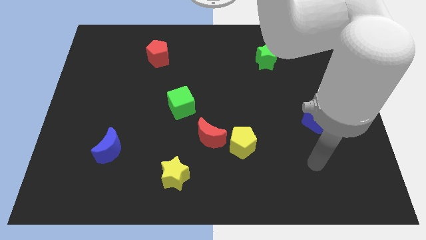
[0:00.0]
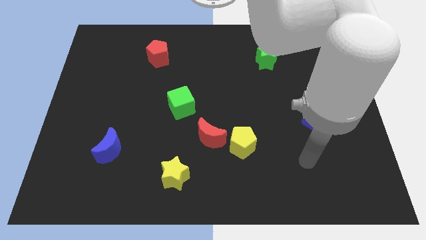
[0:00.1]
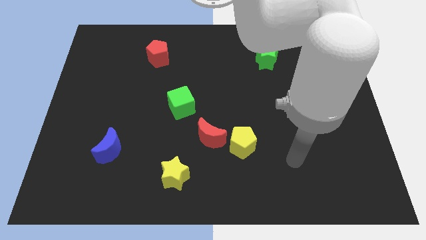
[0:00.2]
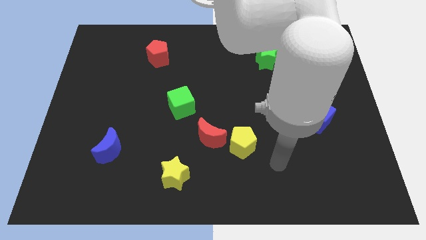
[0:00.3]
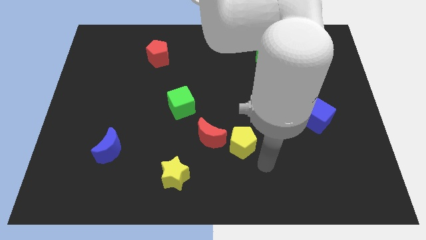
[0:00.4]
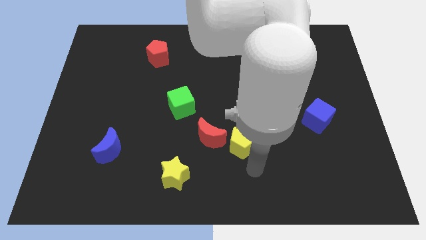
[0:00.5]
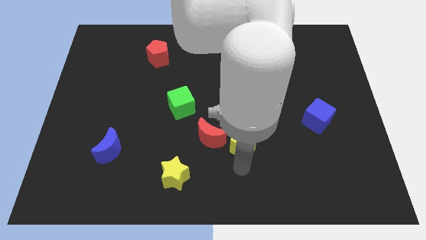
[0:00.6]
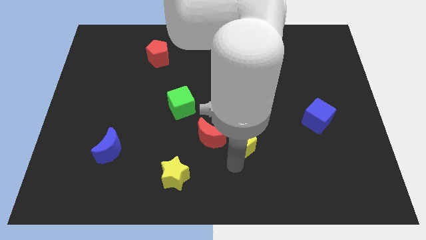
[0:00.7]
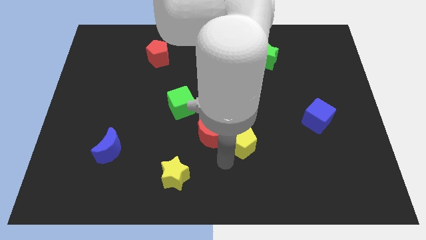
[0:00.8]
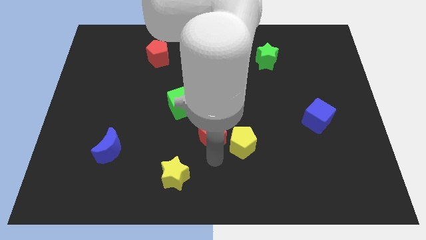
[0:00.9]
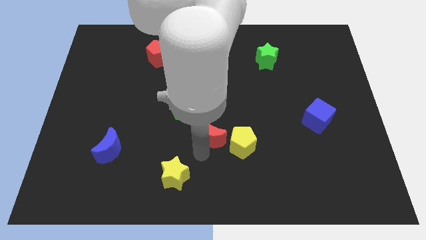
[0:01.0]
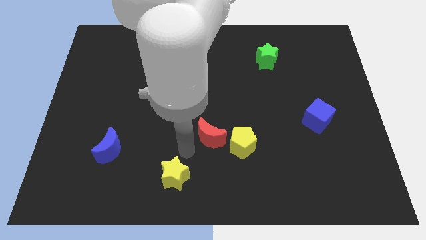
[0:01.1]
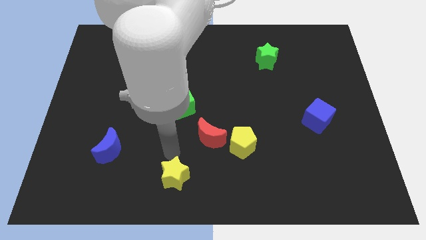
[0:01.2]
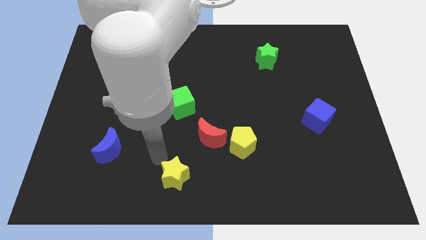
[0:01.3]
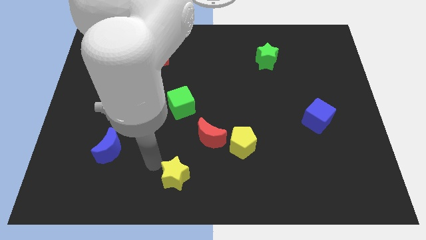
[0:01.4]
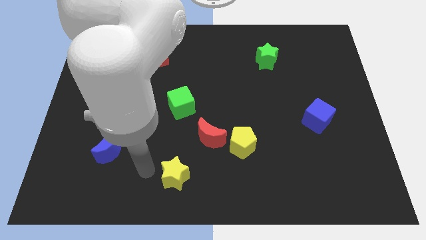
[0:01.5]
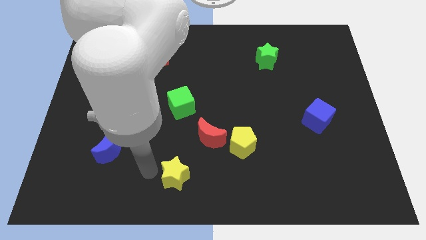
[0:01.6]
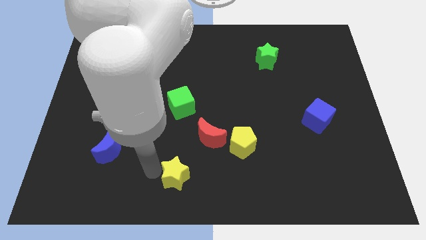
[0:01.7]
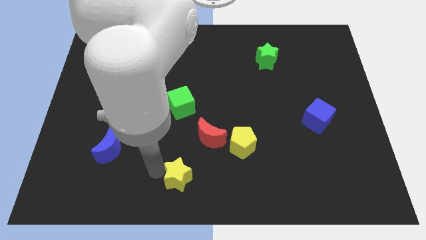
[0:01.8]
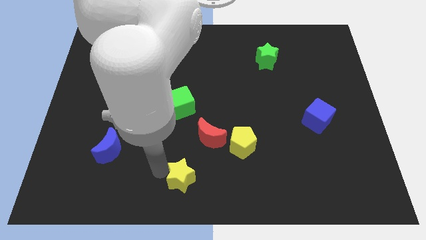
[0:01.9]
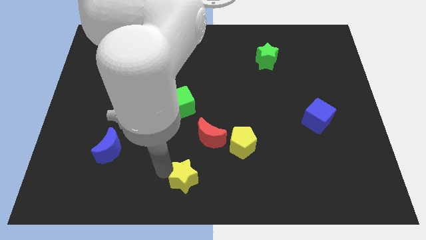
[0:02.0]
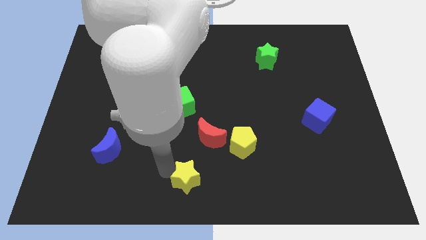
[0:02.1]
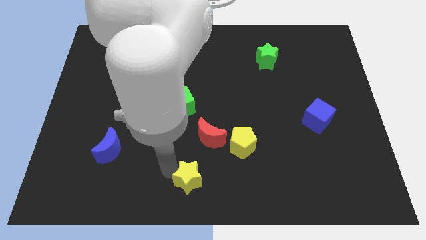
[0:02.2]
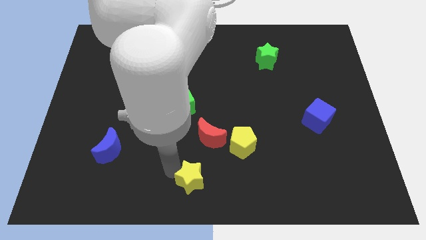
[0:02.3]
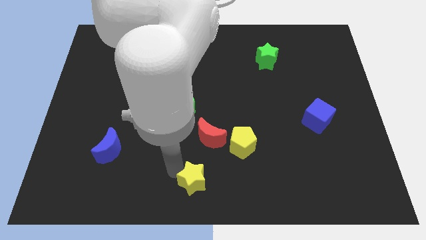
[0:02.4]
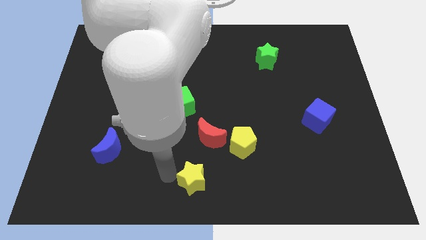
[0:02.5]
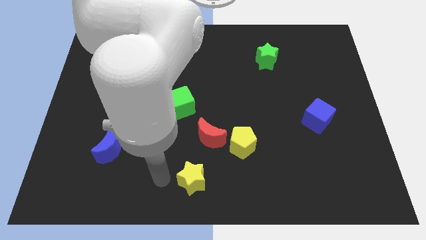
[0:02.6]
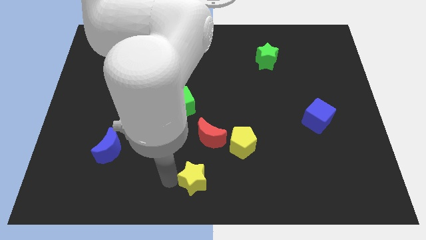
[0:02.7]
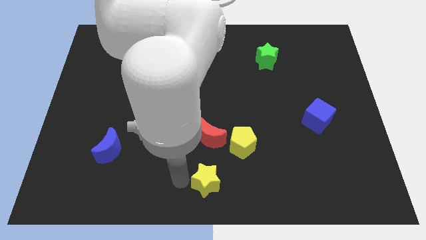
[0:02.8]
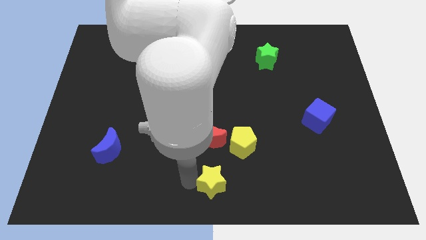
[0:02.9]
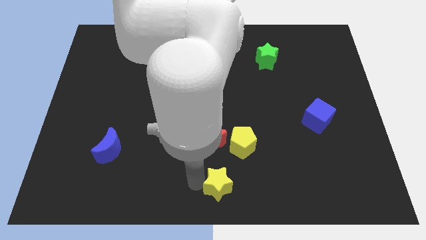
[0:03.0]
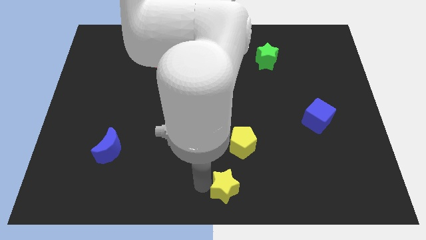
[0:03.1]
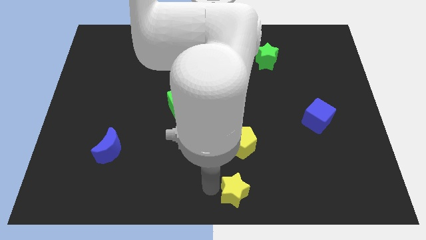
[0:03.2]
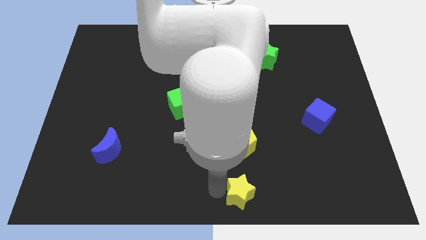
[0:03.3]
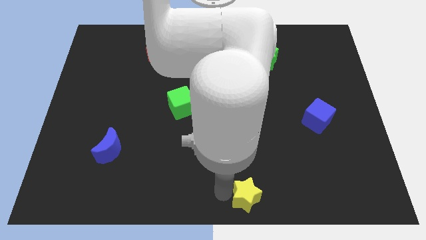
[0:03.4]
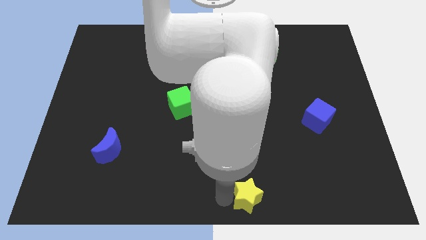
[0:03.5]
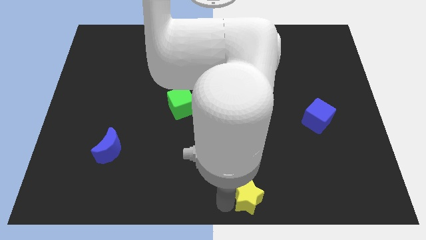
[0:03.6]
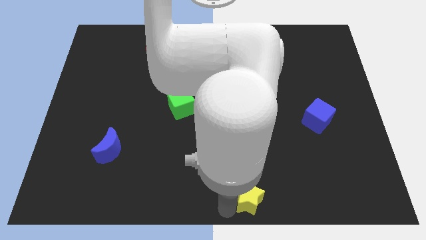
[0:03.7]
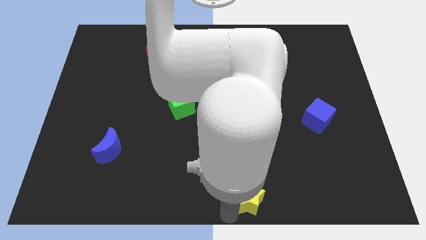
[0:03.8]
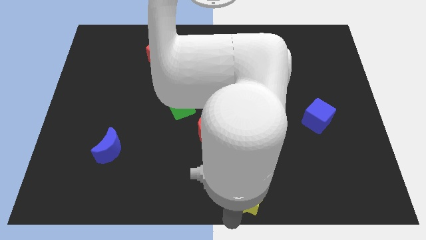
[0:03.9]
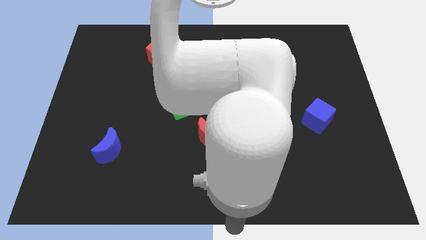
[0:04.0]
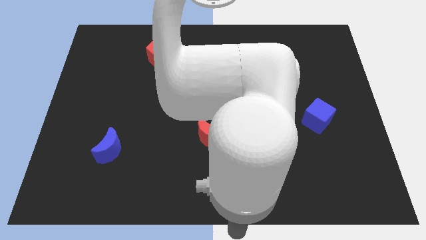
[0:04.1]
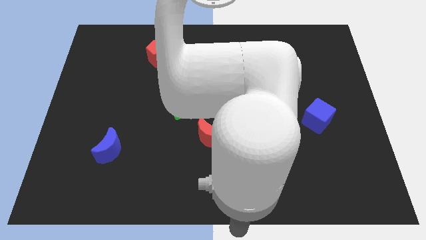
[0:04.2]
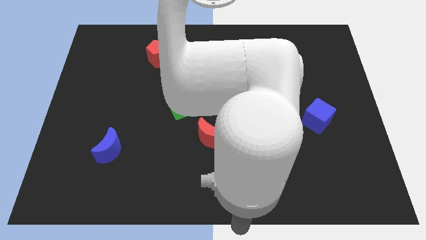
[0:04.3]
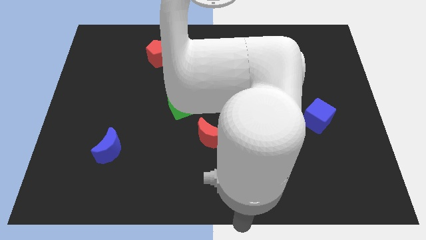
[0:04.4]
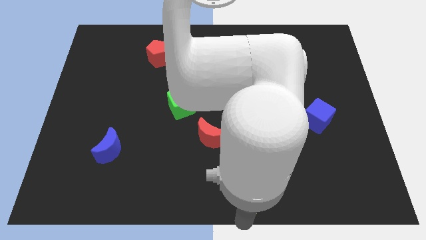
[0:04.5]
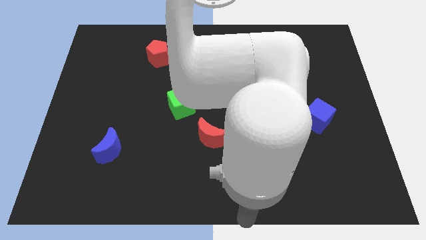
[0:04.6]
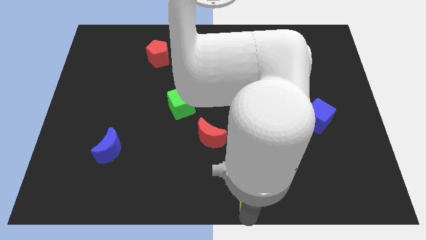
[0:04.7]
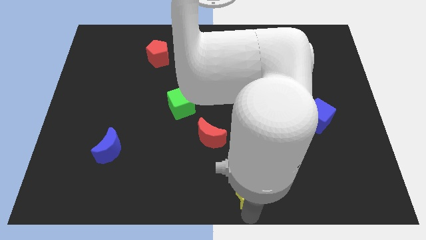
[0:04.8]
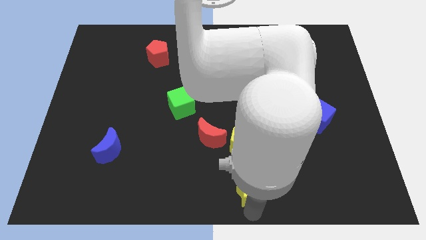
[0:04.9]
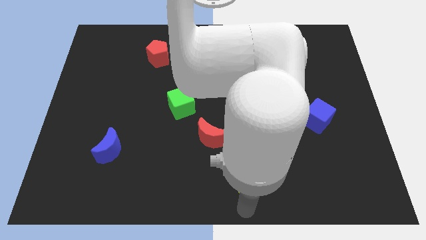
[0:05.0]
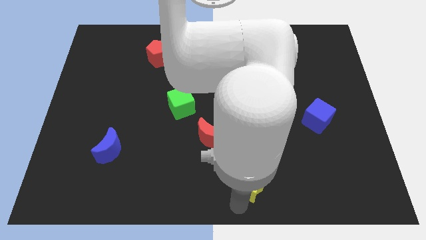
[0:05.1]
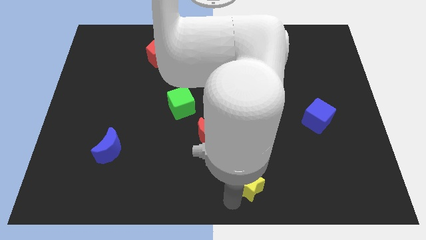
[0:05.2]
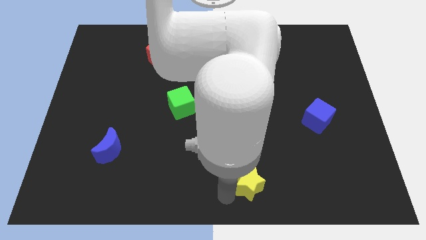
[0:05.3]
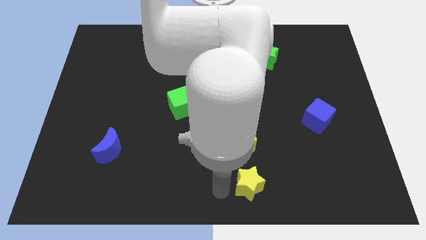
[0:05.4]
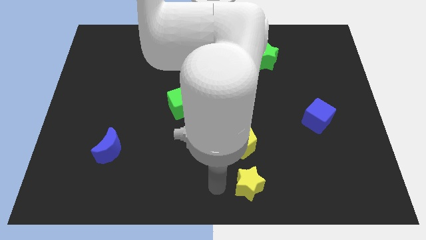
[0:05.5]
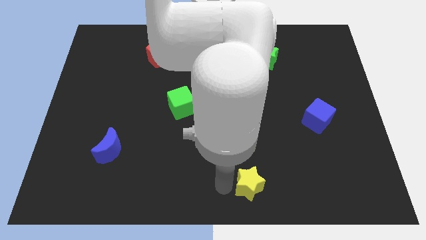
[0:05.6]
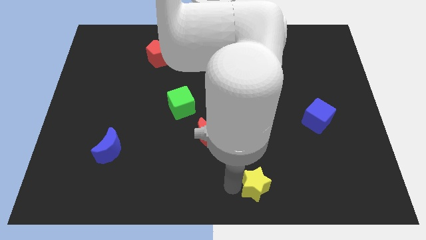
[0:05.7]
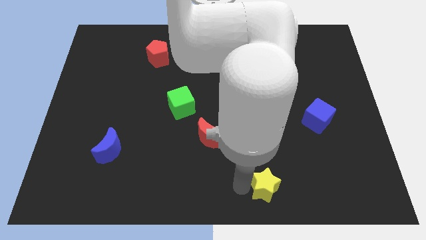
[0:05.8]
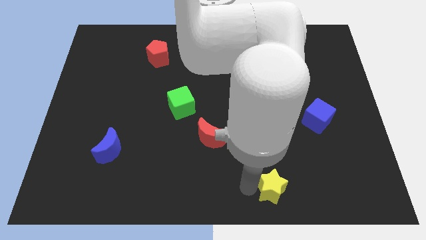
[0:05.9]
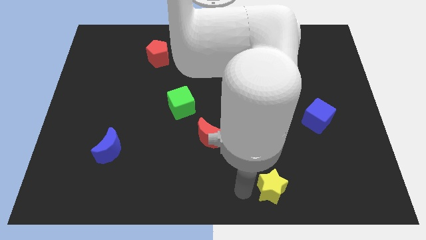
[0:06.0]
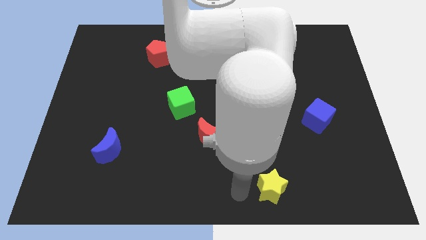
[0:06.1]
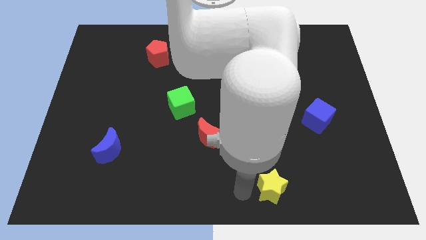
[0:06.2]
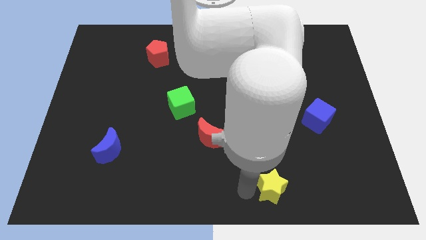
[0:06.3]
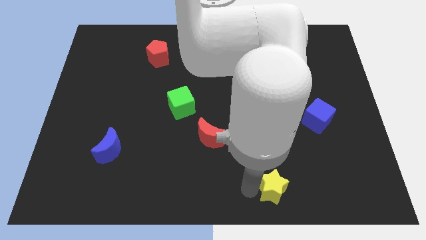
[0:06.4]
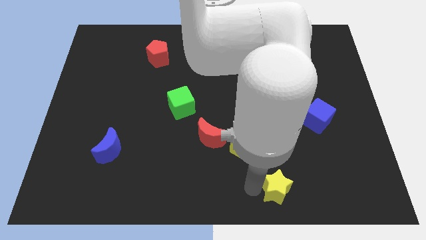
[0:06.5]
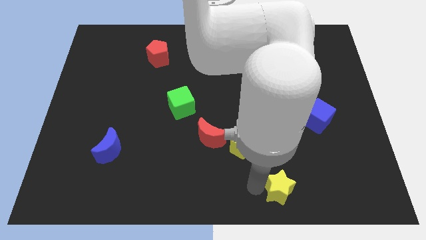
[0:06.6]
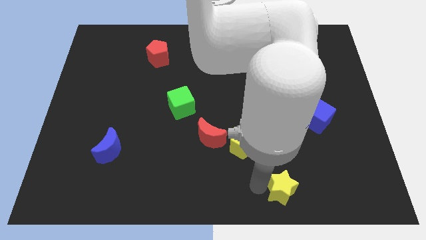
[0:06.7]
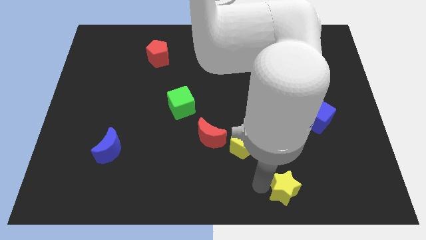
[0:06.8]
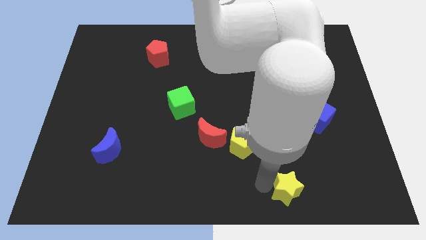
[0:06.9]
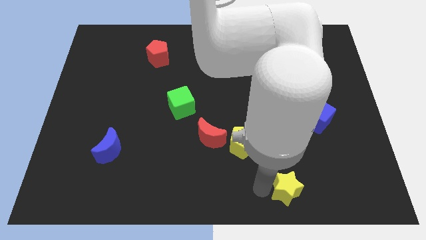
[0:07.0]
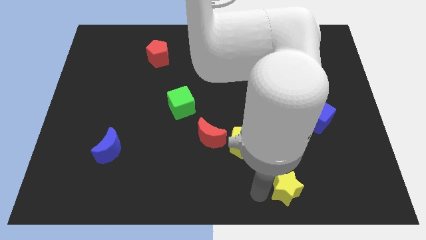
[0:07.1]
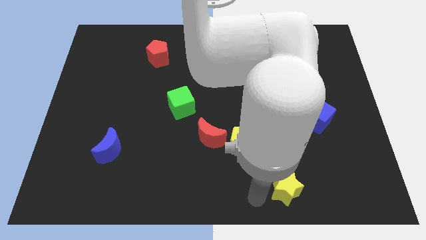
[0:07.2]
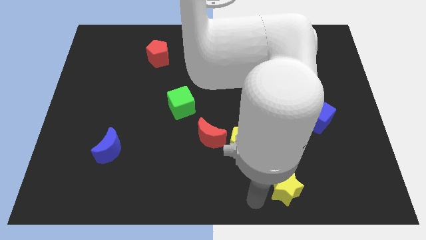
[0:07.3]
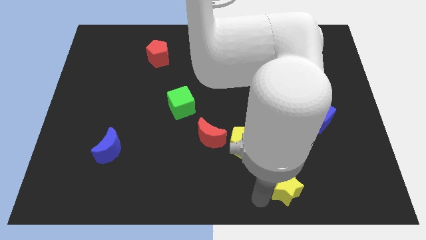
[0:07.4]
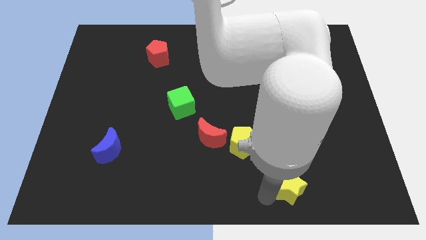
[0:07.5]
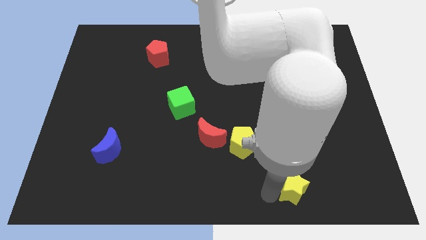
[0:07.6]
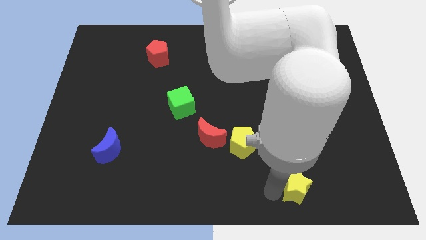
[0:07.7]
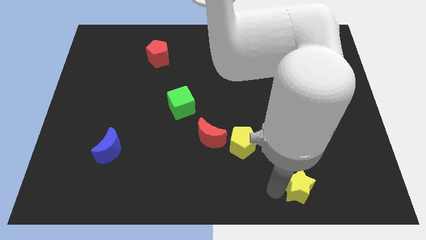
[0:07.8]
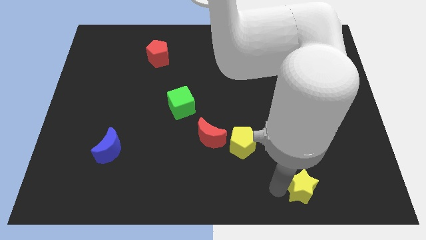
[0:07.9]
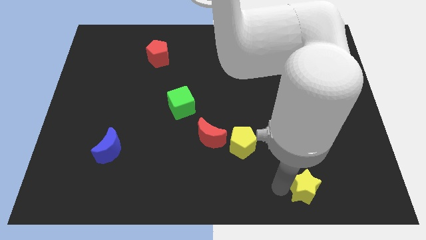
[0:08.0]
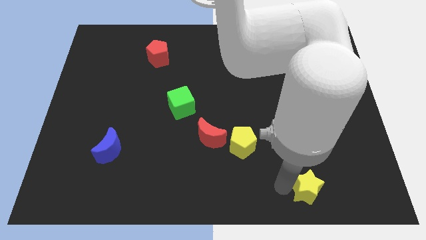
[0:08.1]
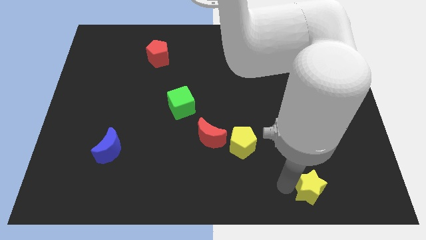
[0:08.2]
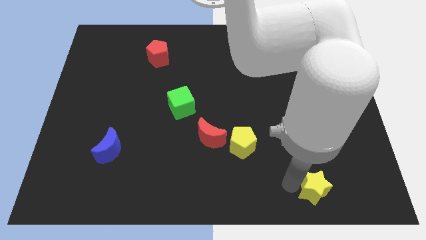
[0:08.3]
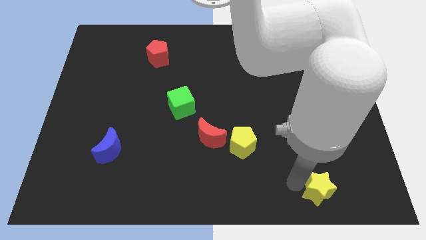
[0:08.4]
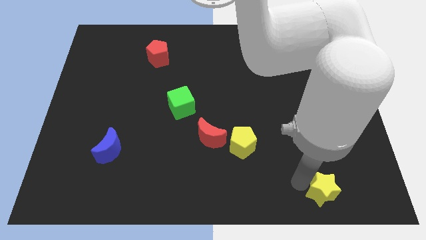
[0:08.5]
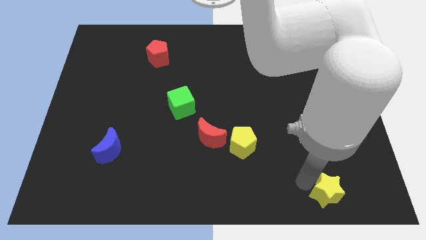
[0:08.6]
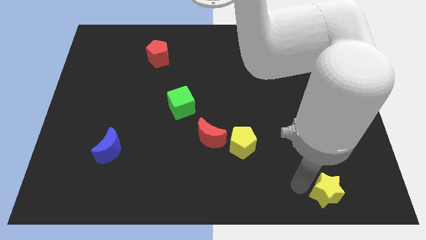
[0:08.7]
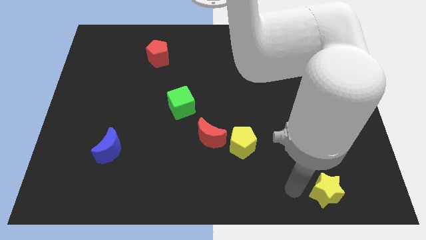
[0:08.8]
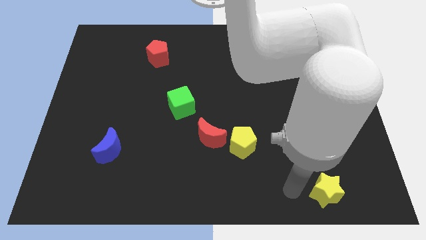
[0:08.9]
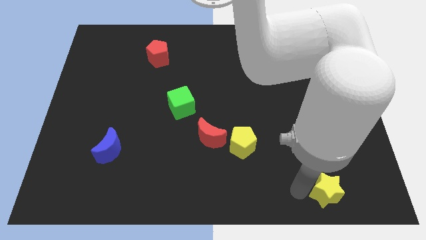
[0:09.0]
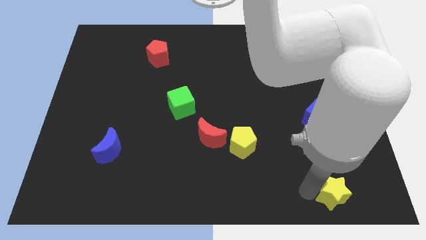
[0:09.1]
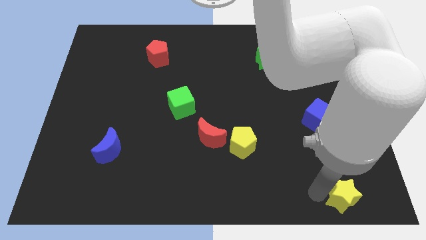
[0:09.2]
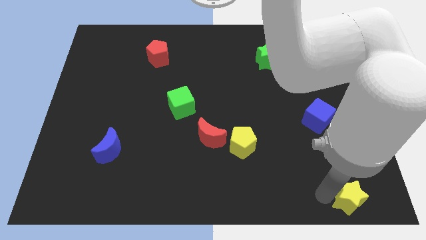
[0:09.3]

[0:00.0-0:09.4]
put the yellow star to the bottom right of the board
